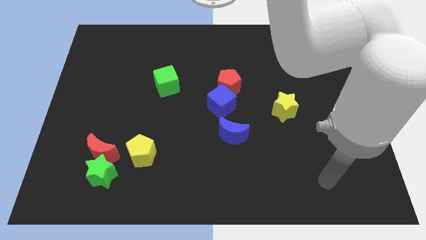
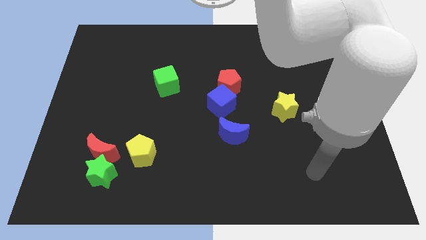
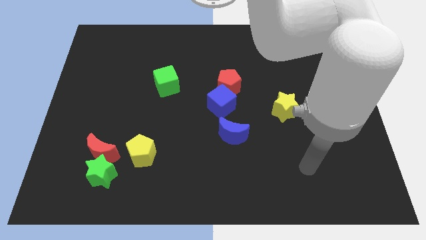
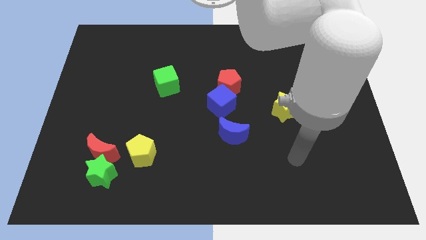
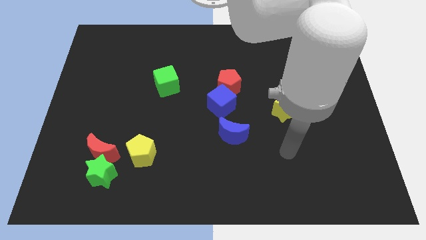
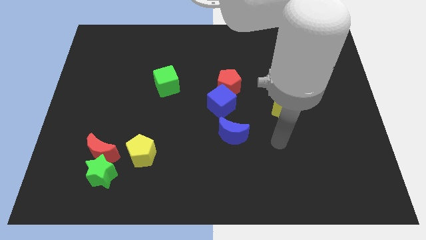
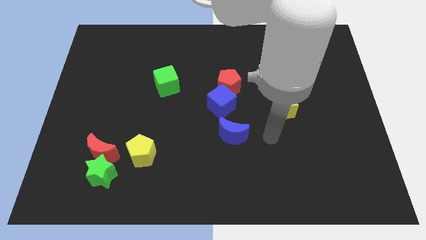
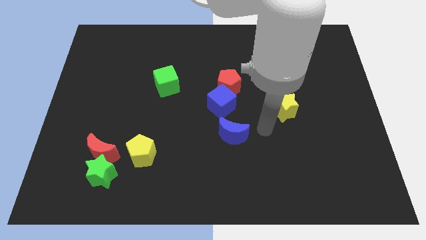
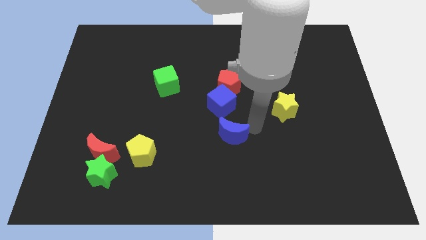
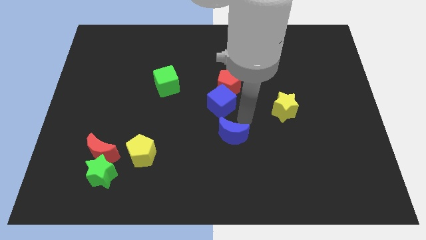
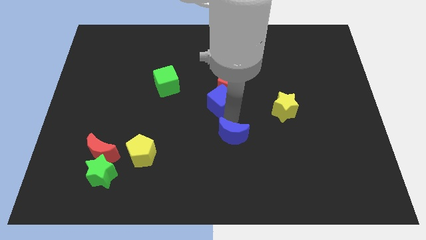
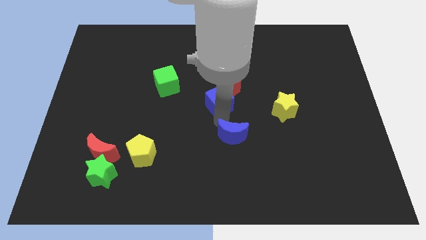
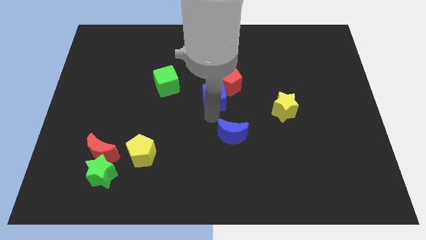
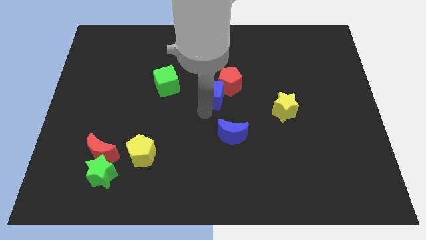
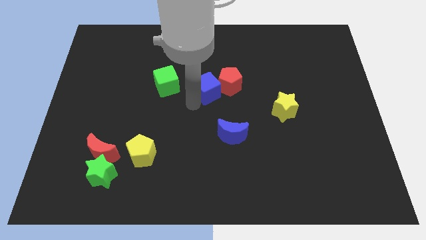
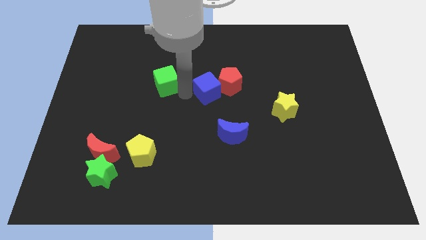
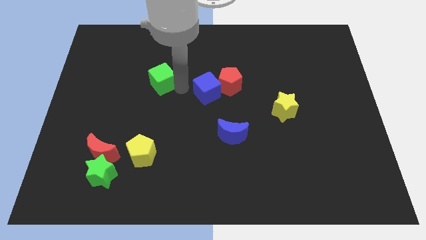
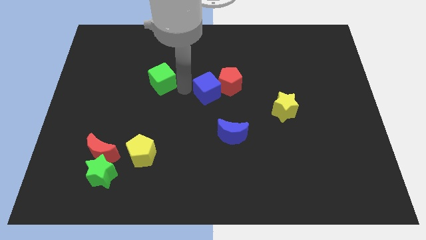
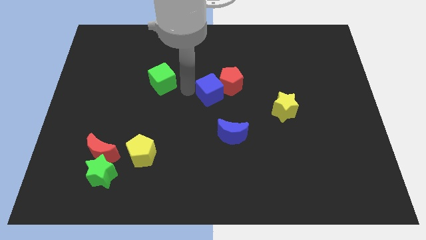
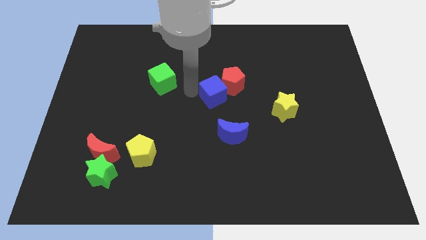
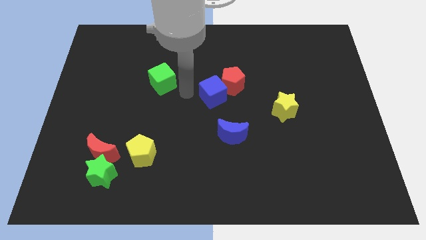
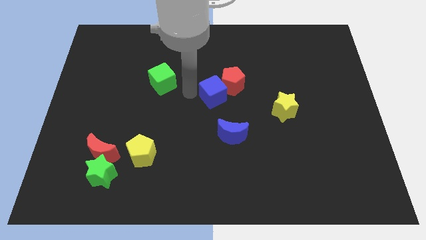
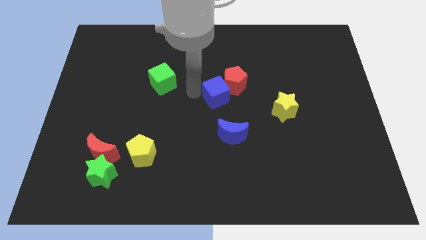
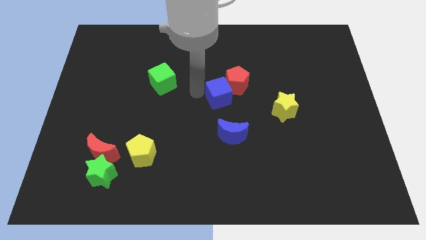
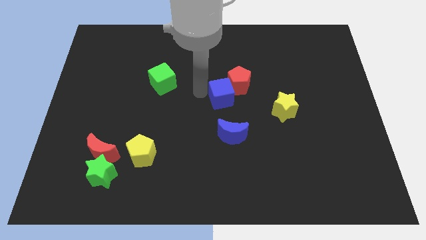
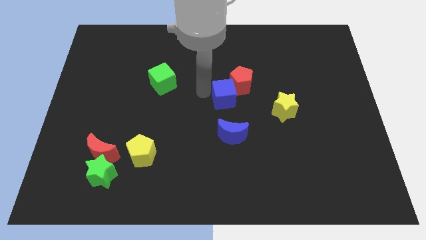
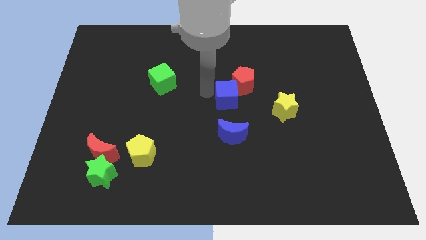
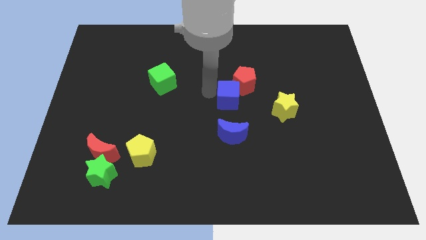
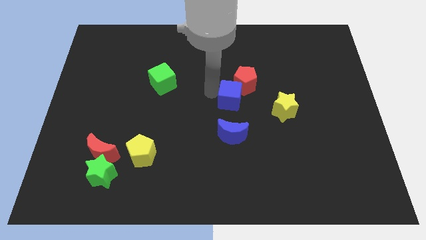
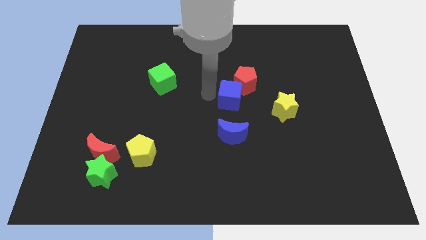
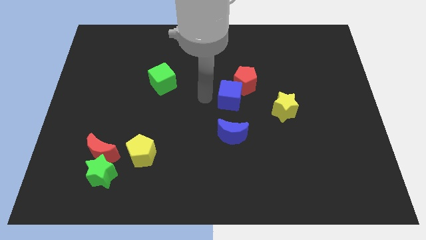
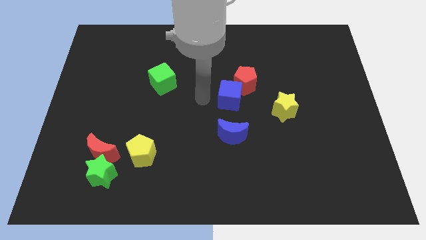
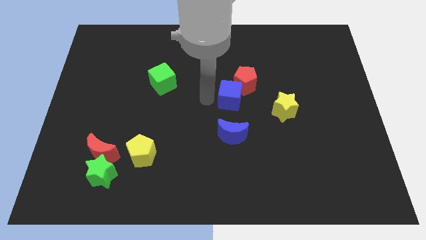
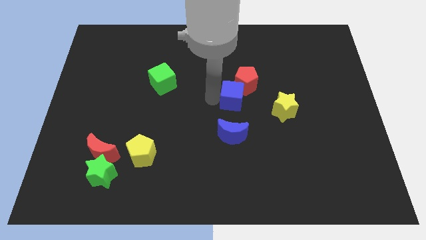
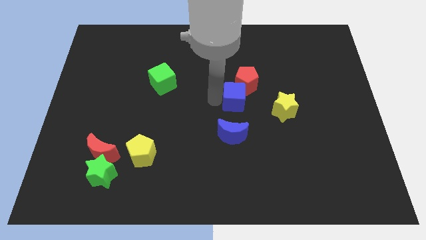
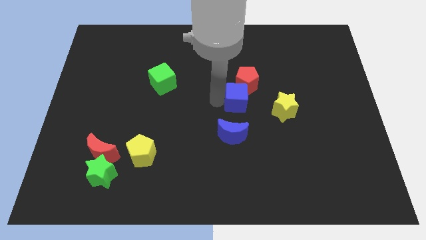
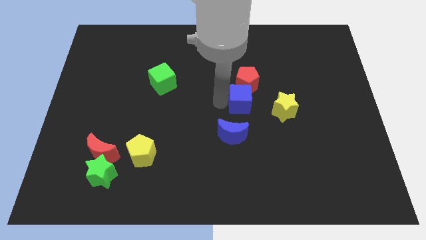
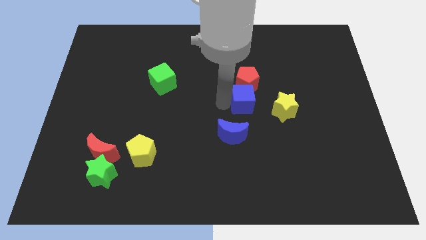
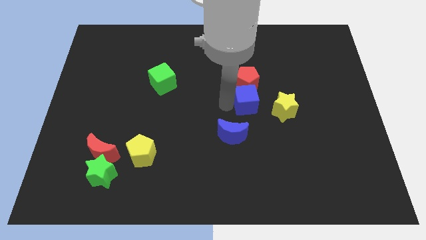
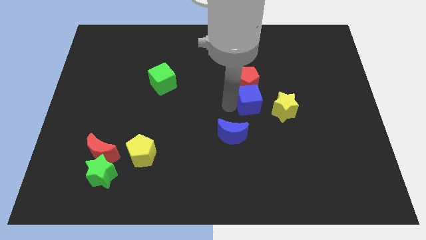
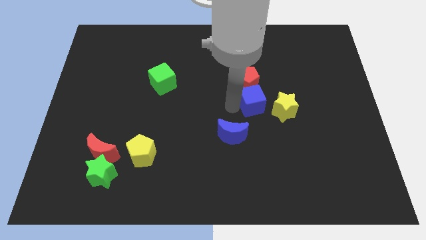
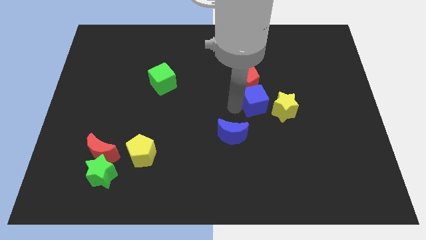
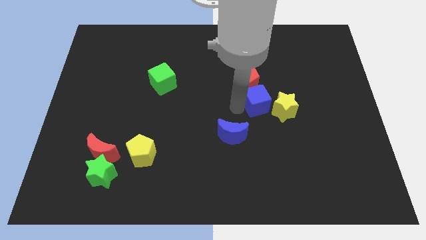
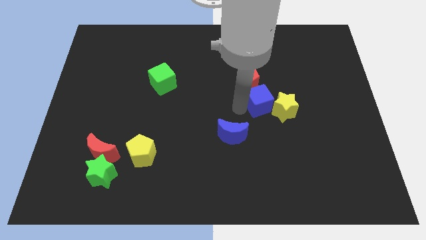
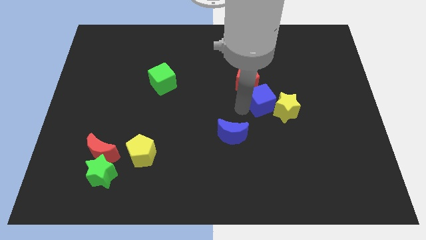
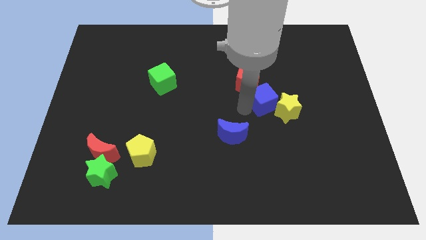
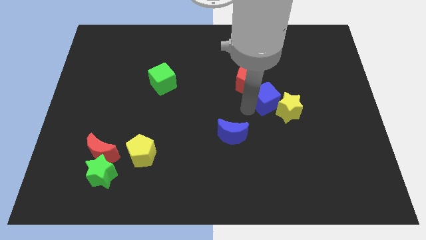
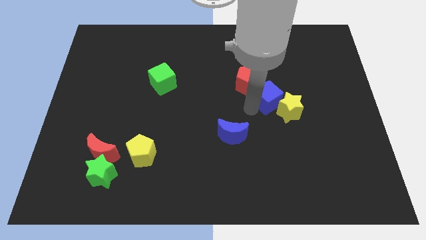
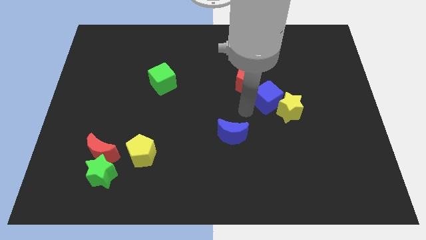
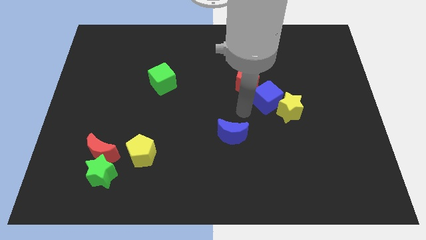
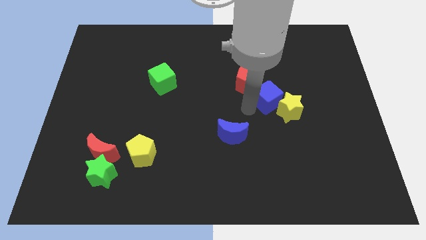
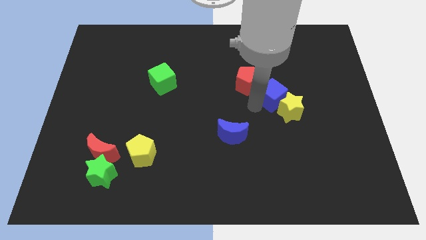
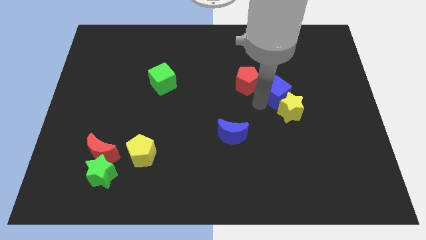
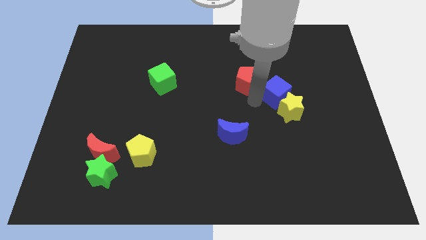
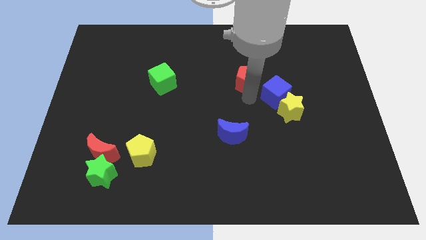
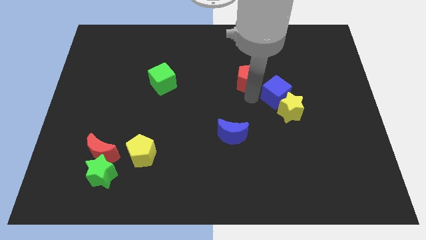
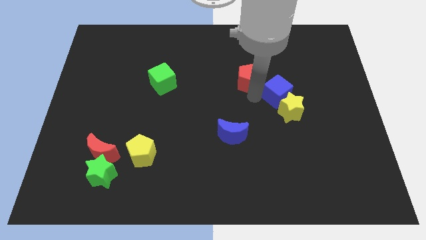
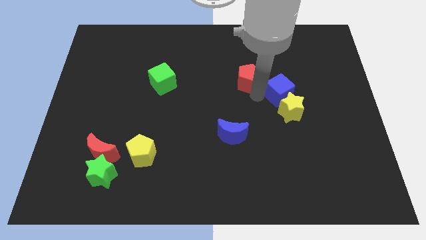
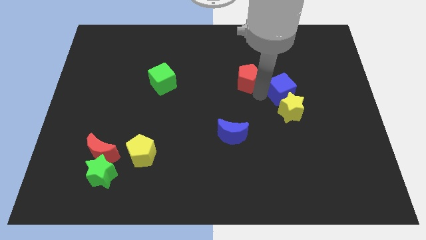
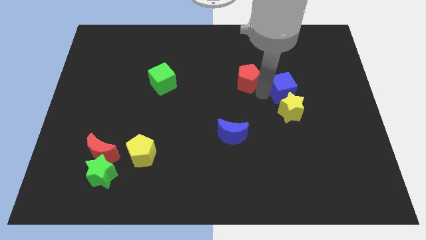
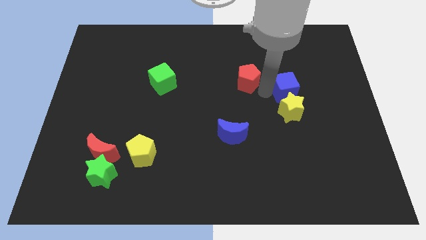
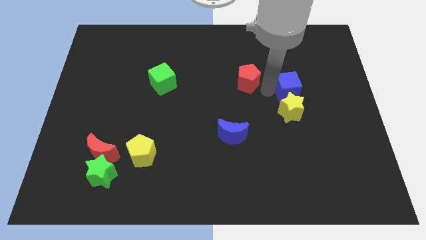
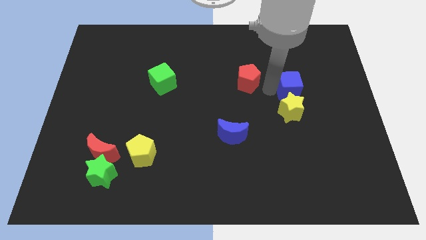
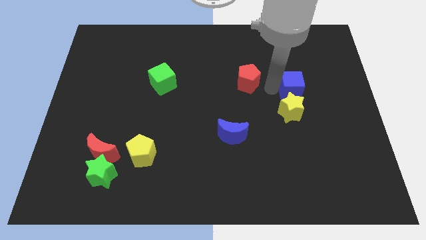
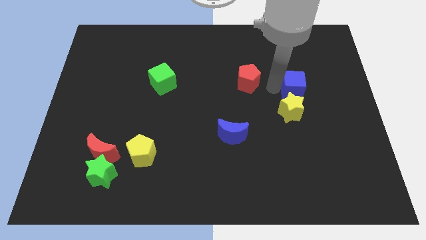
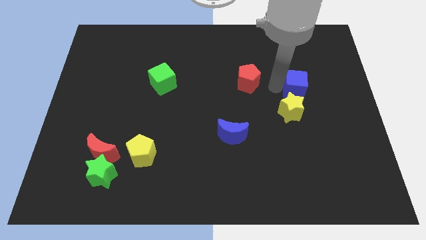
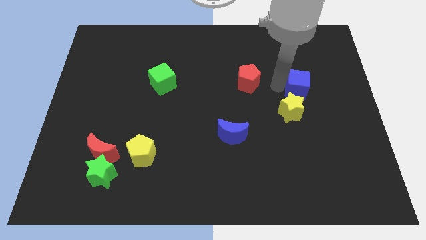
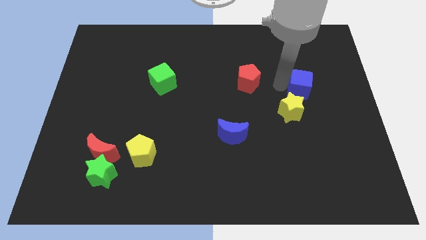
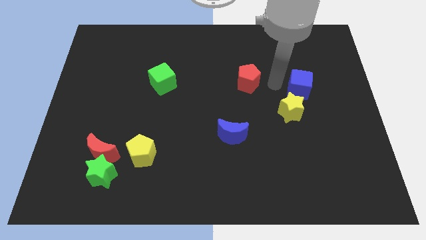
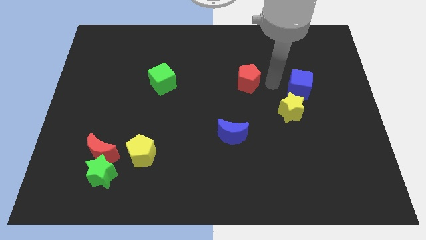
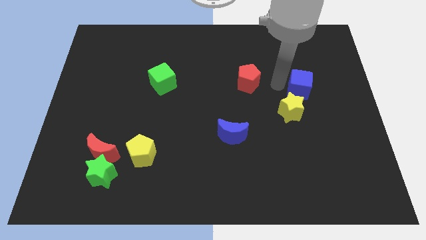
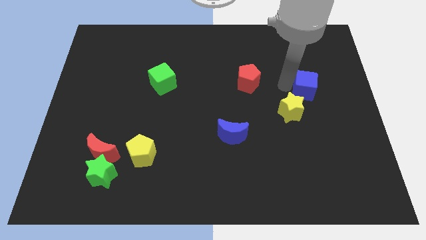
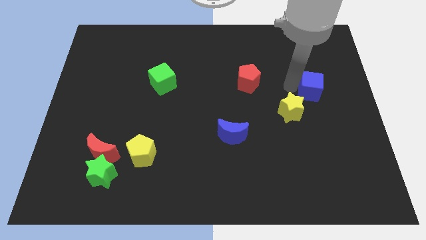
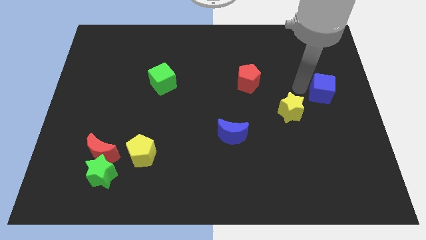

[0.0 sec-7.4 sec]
slide the blue cube to the right side of the board
